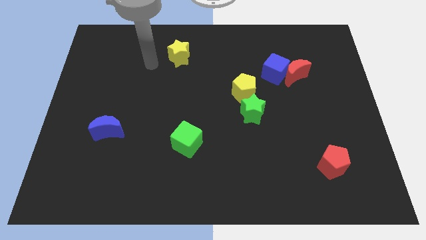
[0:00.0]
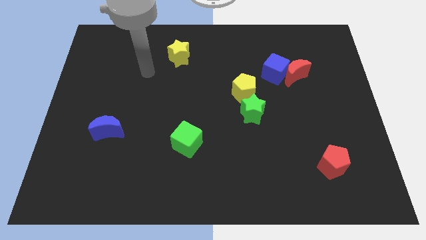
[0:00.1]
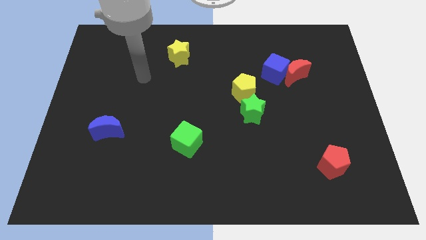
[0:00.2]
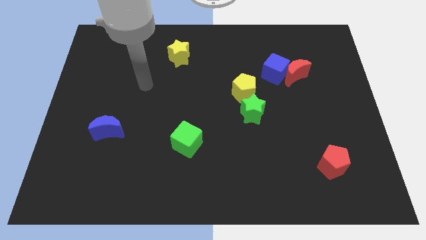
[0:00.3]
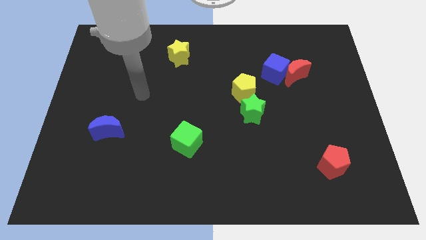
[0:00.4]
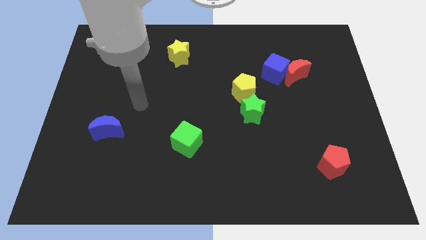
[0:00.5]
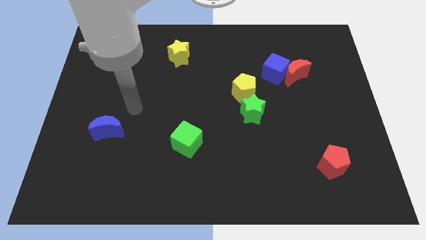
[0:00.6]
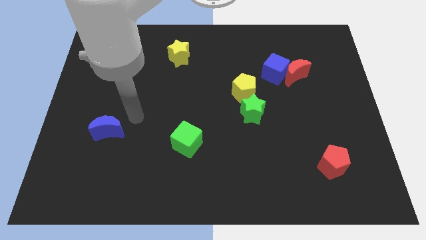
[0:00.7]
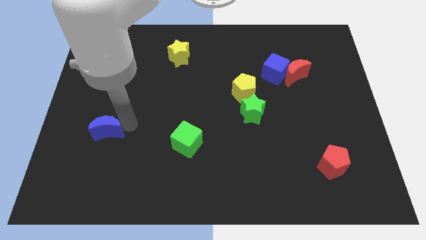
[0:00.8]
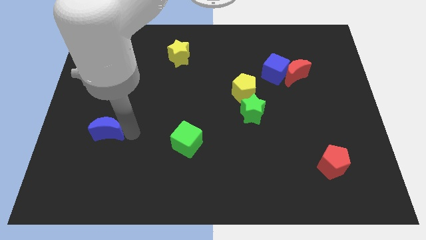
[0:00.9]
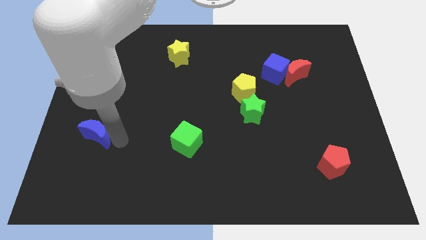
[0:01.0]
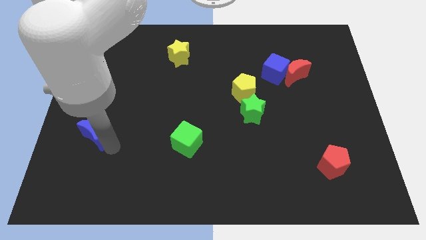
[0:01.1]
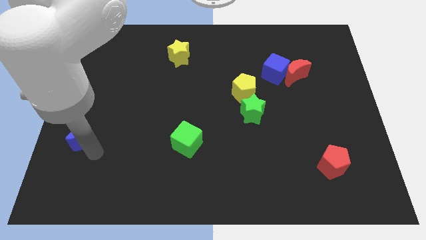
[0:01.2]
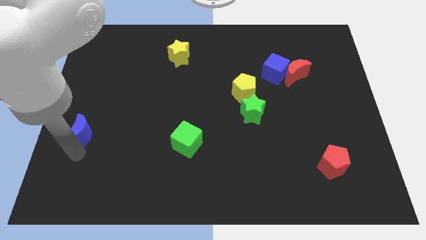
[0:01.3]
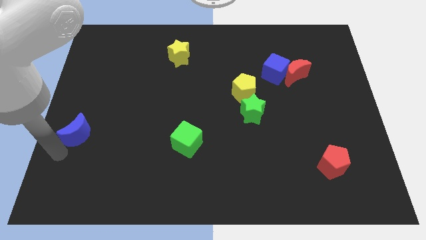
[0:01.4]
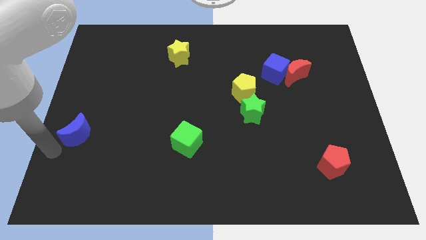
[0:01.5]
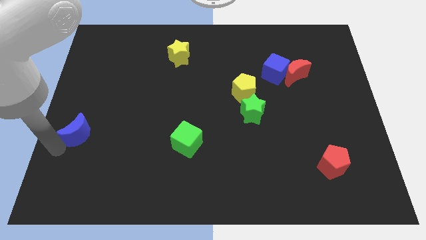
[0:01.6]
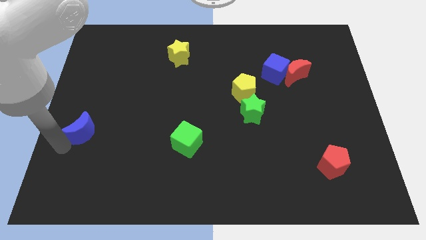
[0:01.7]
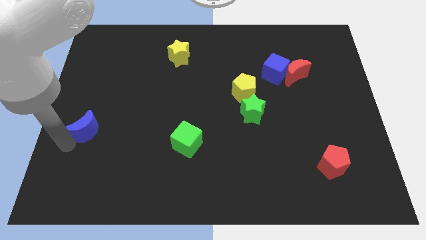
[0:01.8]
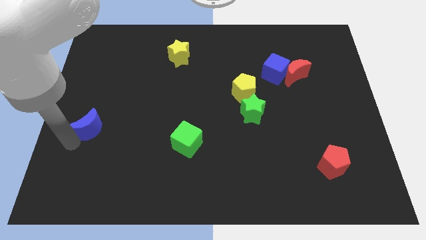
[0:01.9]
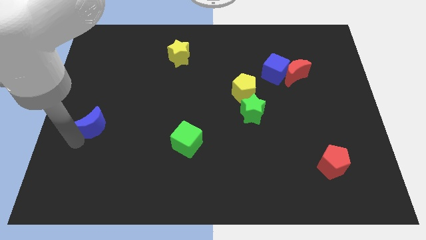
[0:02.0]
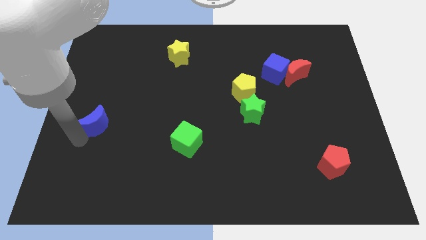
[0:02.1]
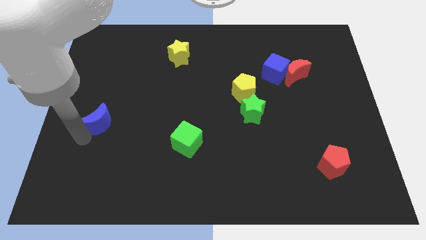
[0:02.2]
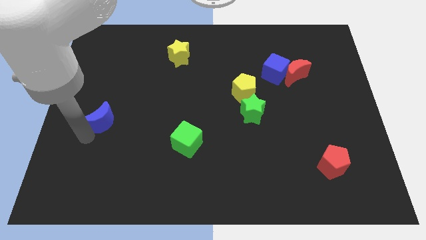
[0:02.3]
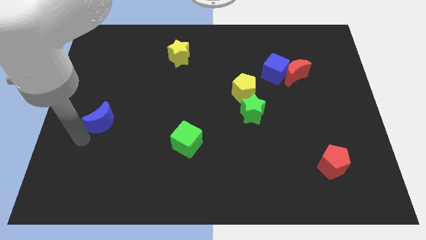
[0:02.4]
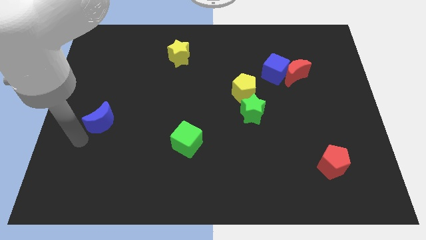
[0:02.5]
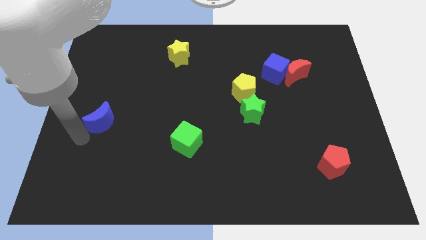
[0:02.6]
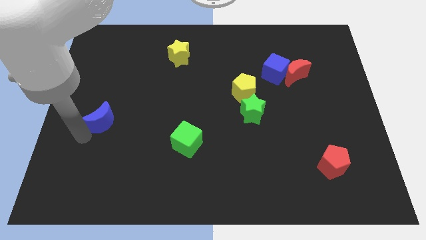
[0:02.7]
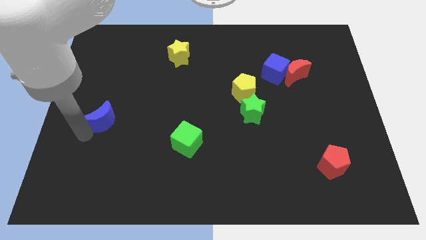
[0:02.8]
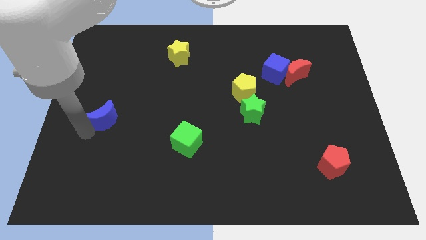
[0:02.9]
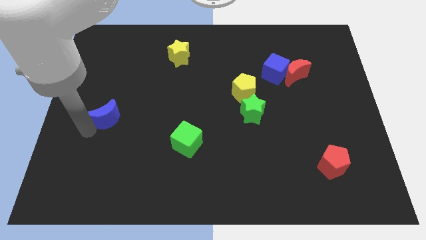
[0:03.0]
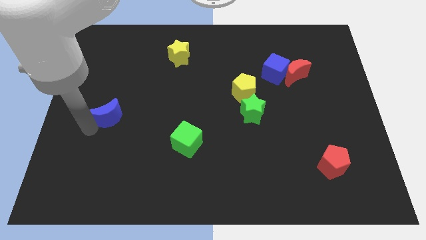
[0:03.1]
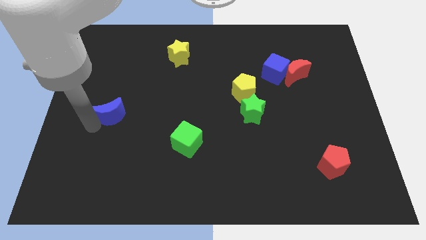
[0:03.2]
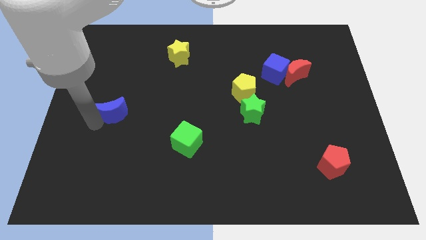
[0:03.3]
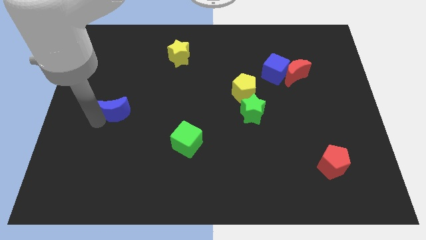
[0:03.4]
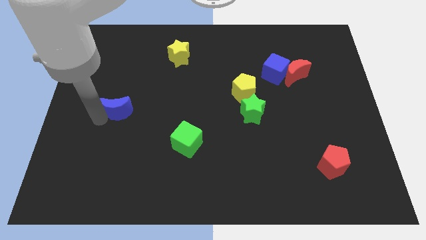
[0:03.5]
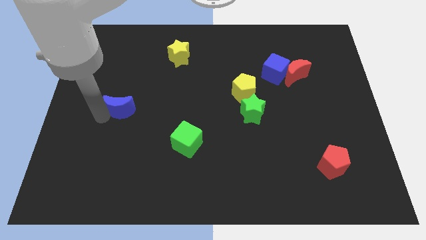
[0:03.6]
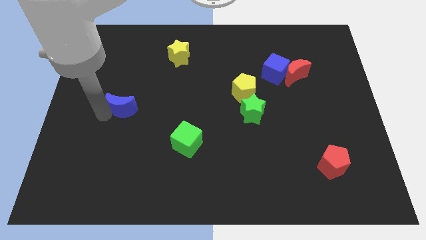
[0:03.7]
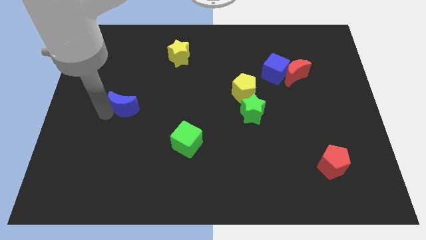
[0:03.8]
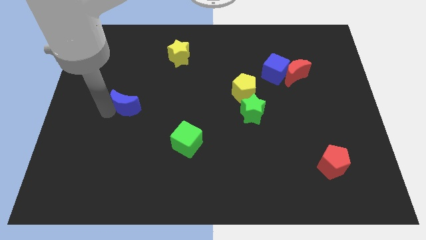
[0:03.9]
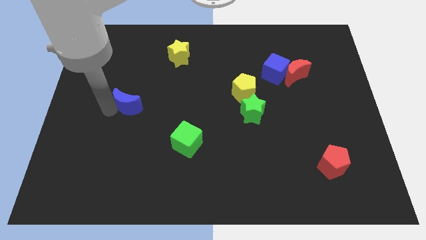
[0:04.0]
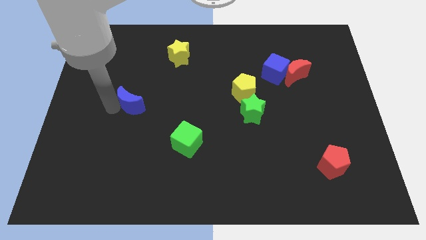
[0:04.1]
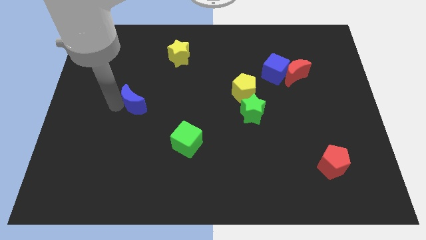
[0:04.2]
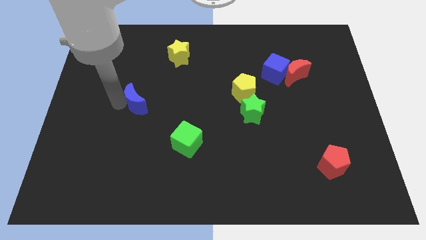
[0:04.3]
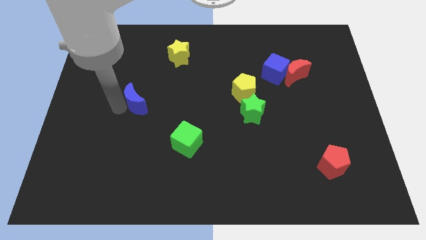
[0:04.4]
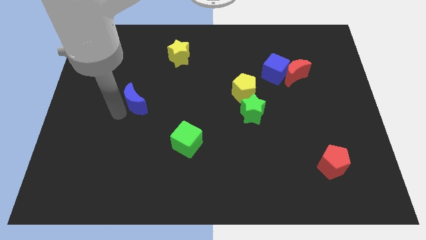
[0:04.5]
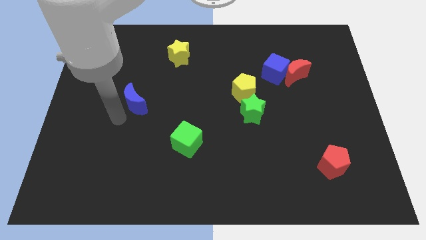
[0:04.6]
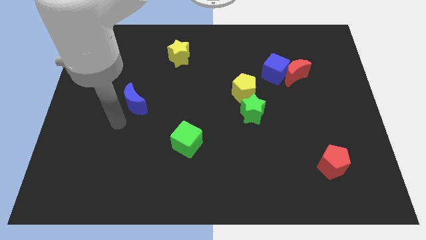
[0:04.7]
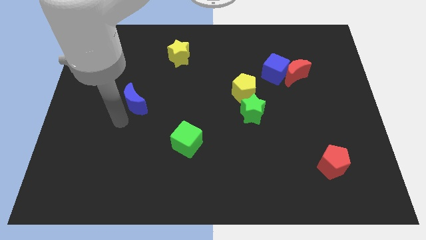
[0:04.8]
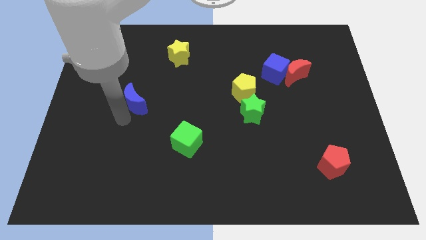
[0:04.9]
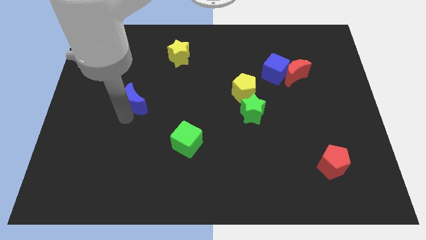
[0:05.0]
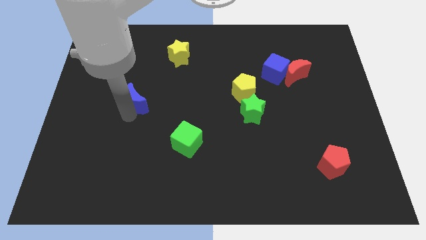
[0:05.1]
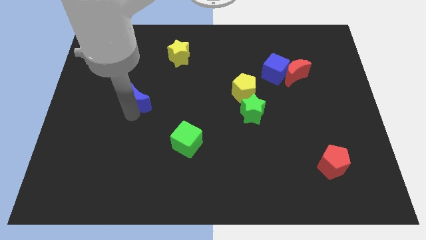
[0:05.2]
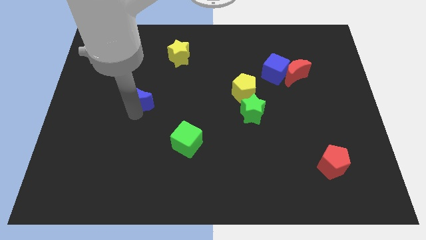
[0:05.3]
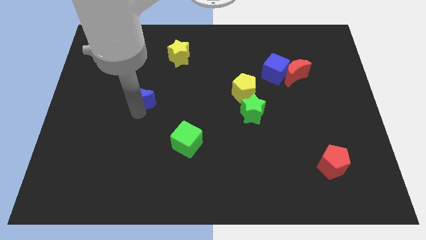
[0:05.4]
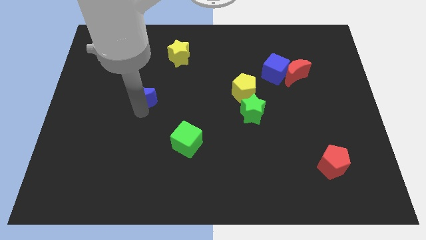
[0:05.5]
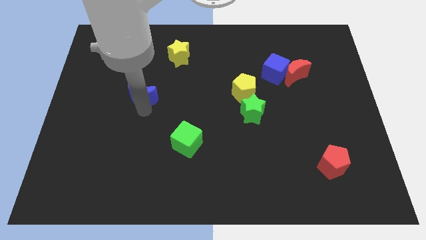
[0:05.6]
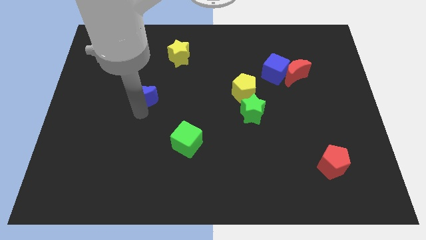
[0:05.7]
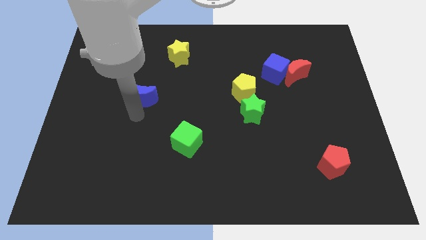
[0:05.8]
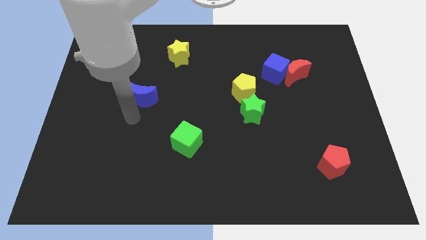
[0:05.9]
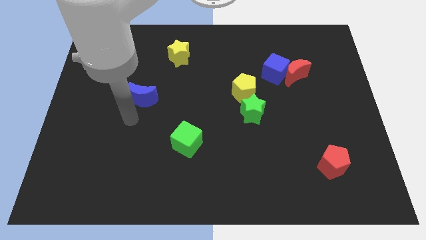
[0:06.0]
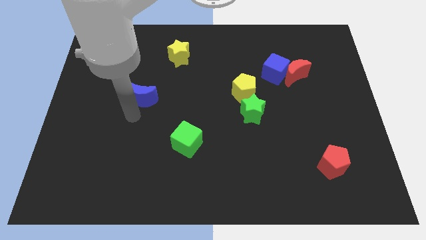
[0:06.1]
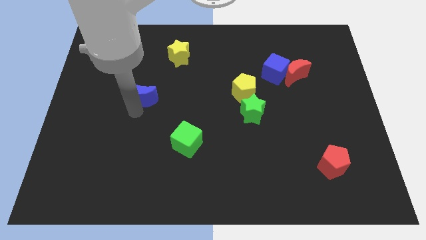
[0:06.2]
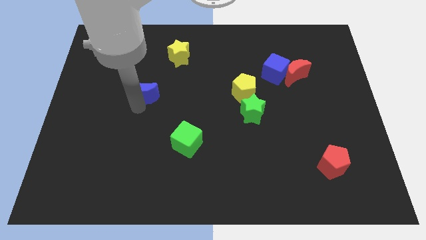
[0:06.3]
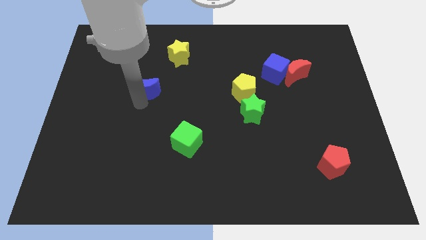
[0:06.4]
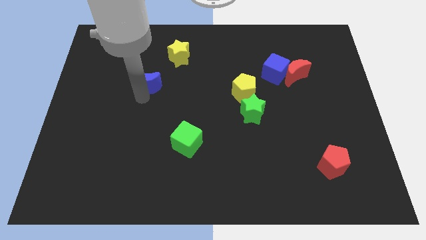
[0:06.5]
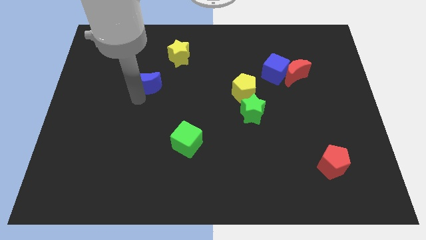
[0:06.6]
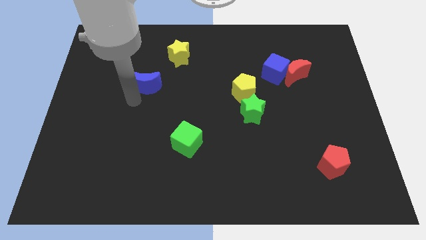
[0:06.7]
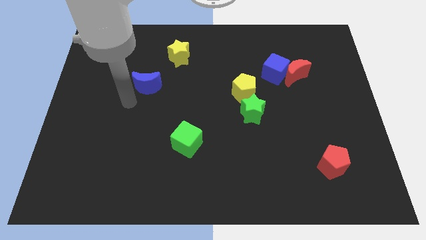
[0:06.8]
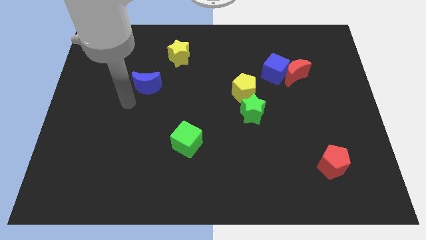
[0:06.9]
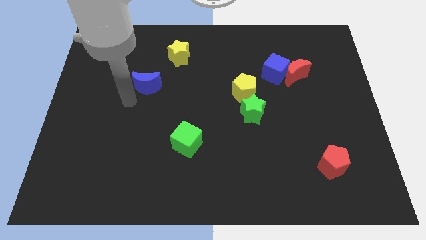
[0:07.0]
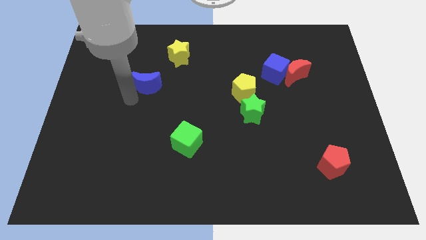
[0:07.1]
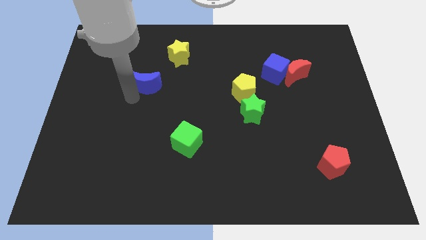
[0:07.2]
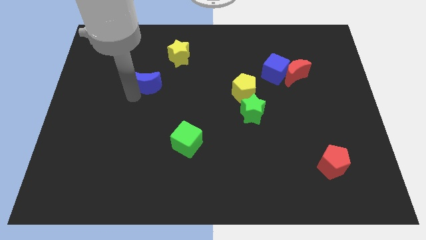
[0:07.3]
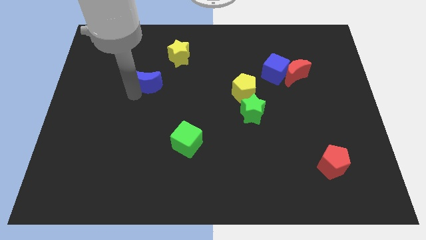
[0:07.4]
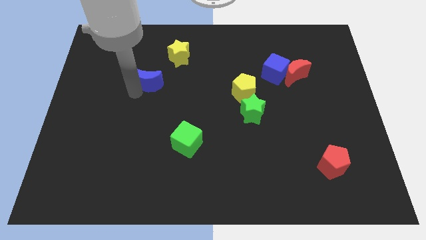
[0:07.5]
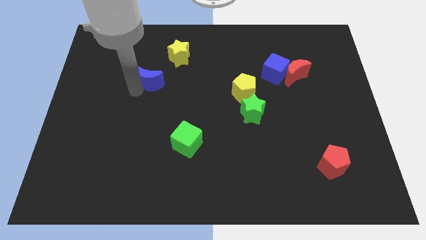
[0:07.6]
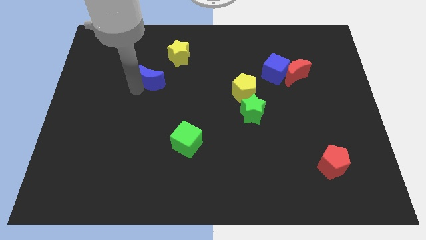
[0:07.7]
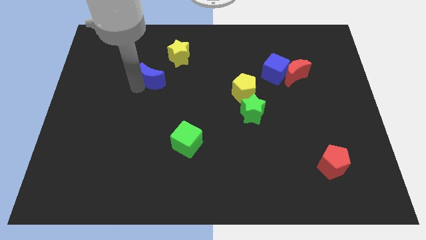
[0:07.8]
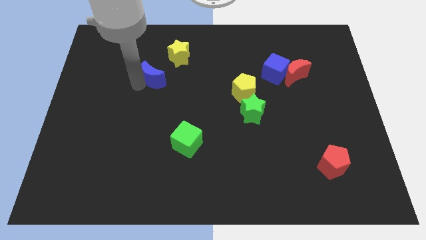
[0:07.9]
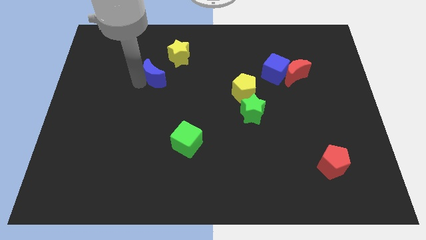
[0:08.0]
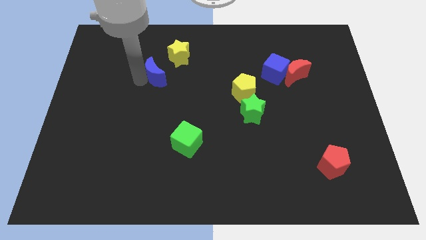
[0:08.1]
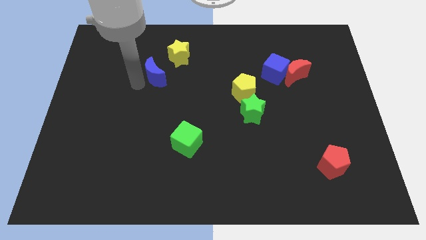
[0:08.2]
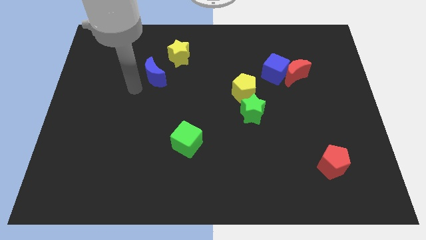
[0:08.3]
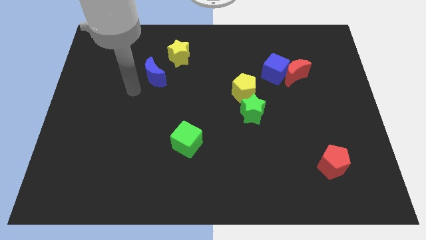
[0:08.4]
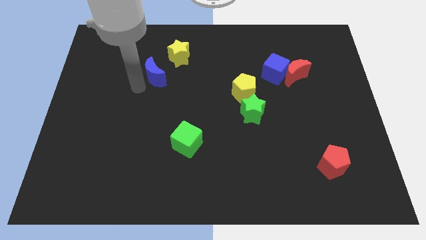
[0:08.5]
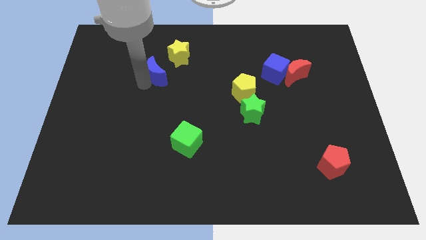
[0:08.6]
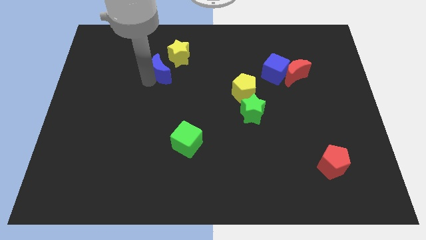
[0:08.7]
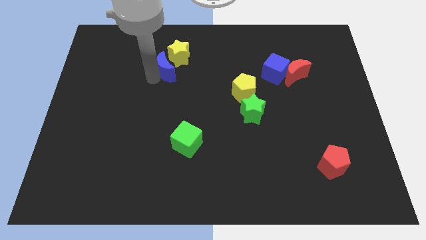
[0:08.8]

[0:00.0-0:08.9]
move the blue moon towards the yellow star
